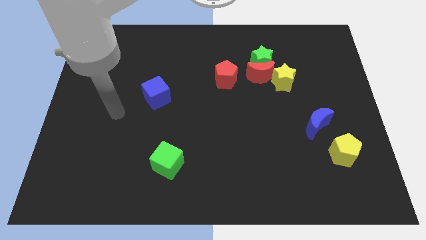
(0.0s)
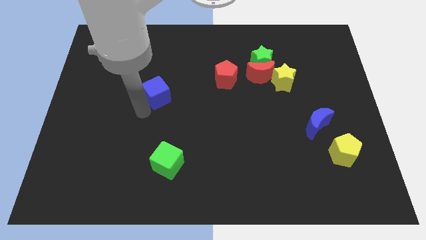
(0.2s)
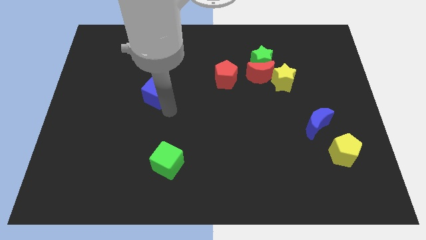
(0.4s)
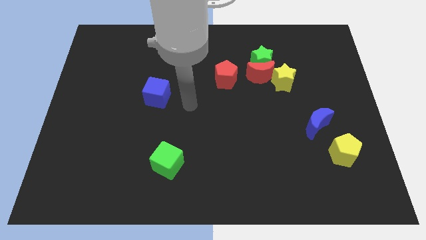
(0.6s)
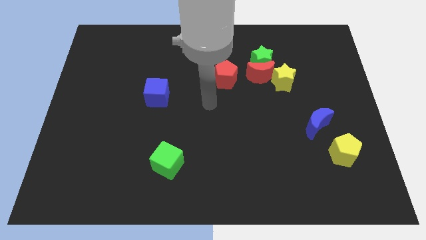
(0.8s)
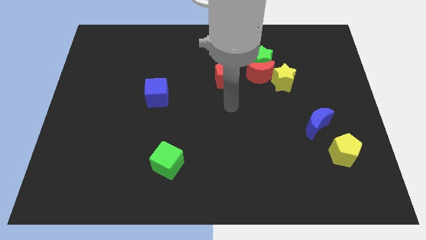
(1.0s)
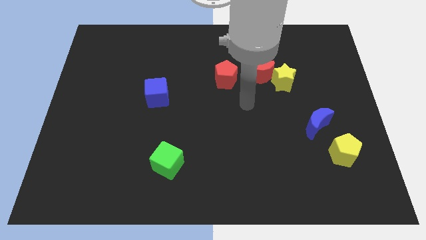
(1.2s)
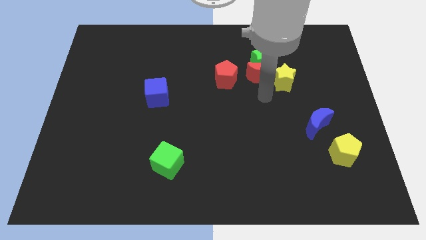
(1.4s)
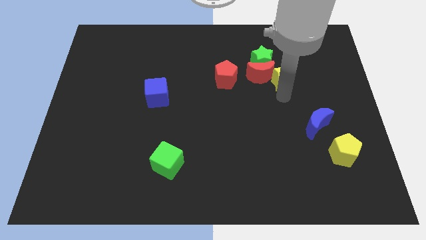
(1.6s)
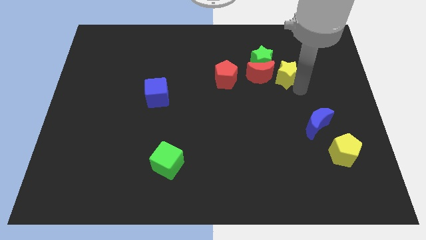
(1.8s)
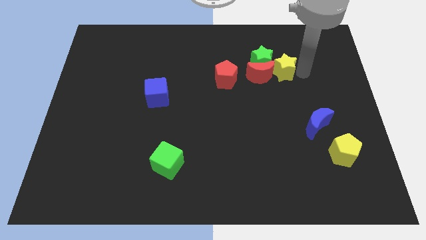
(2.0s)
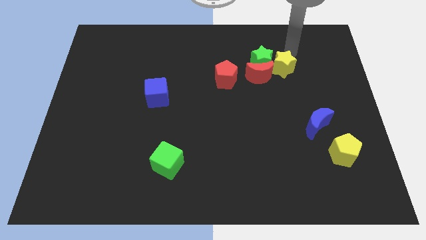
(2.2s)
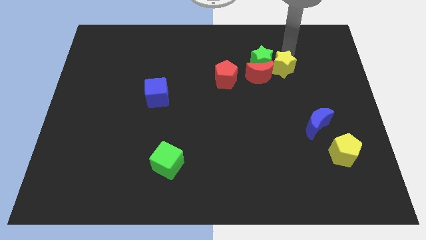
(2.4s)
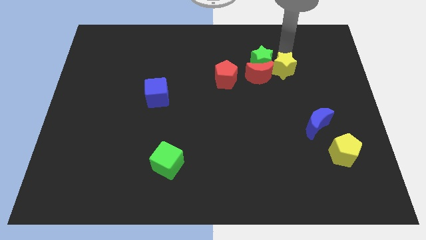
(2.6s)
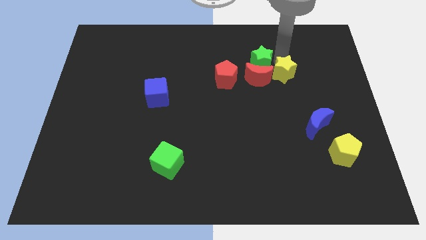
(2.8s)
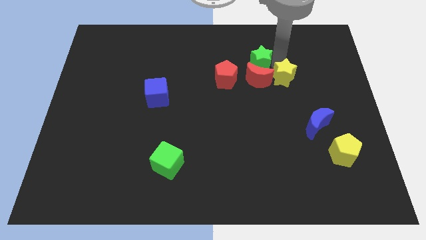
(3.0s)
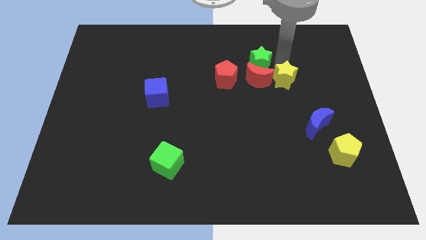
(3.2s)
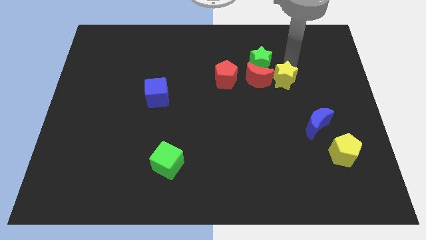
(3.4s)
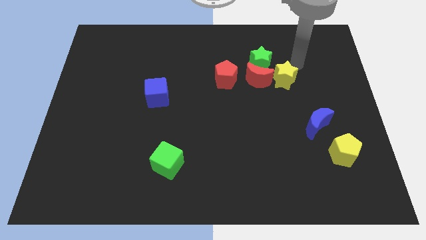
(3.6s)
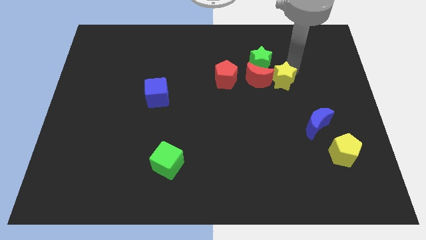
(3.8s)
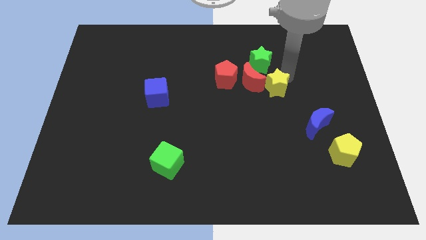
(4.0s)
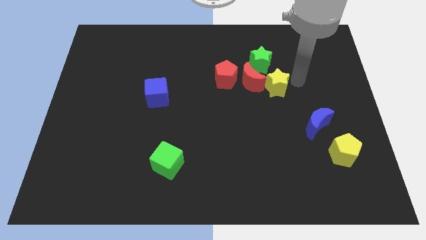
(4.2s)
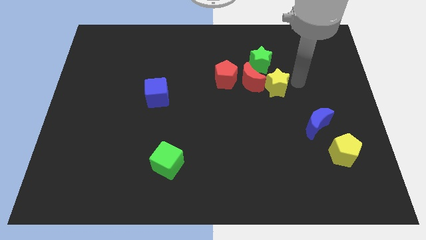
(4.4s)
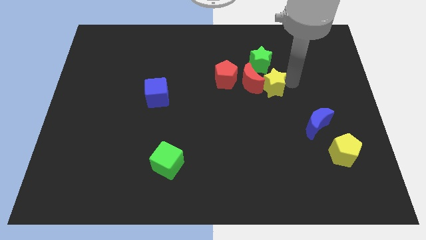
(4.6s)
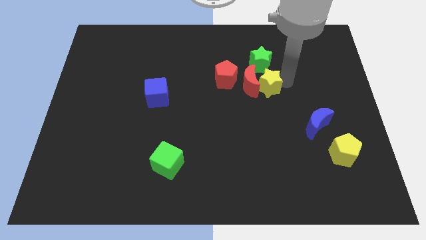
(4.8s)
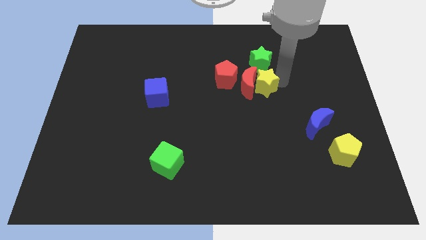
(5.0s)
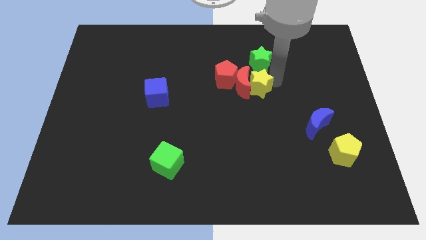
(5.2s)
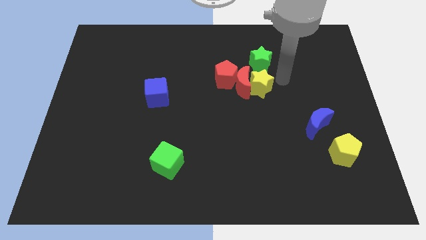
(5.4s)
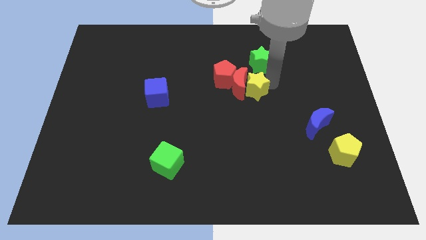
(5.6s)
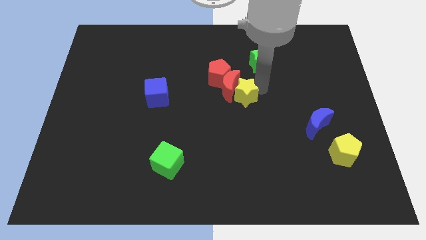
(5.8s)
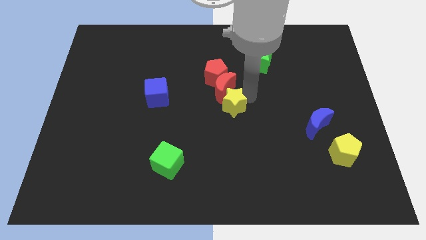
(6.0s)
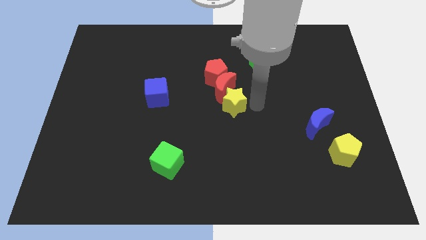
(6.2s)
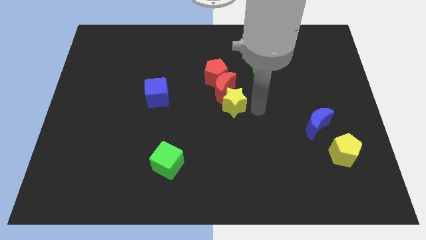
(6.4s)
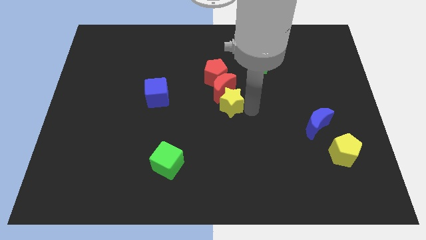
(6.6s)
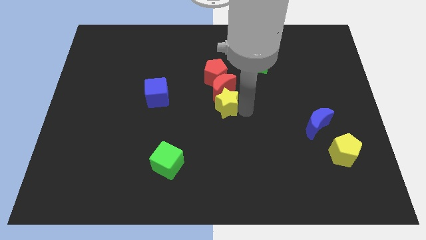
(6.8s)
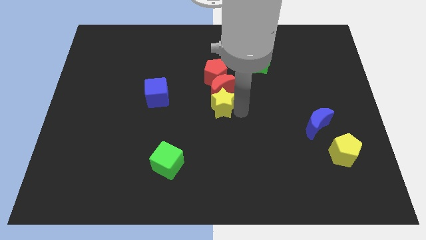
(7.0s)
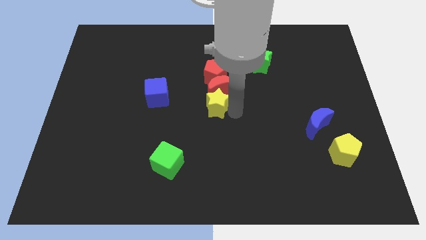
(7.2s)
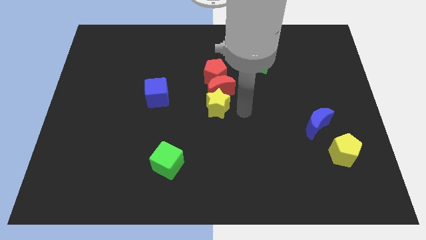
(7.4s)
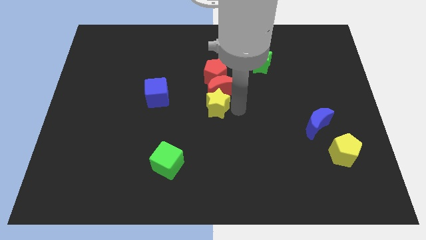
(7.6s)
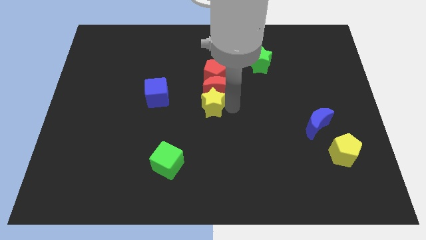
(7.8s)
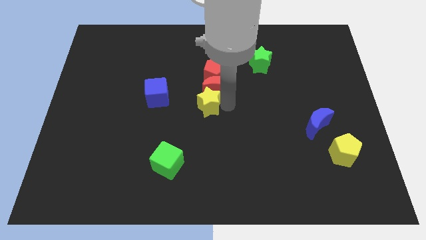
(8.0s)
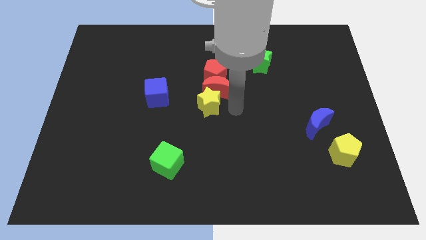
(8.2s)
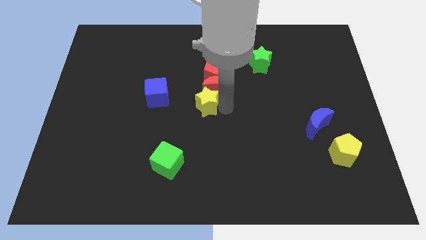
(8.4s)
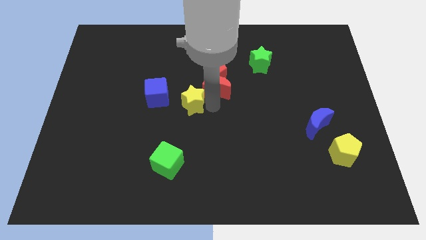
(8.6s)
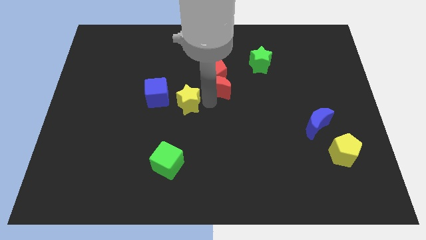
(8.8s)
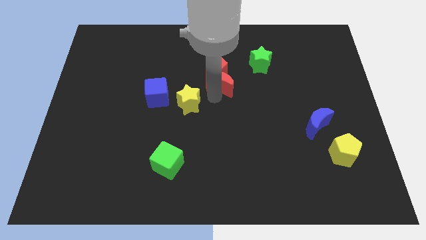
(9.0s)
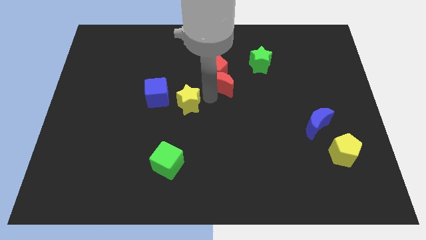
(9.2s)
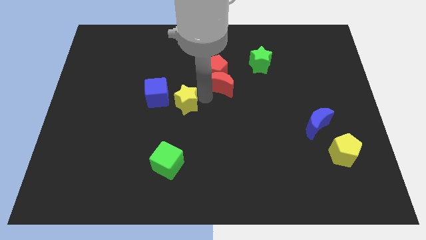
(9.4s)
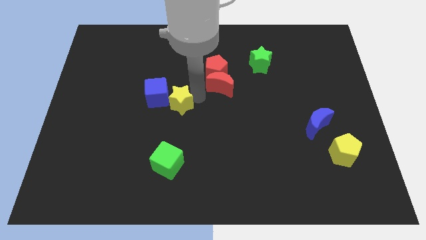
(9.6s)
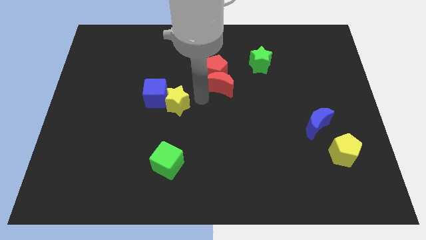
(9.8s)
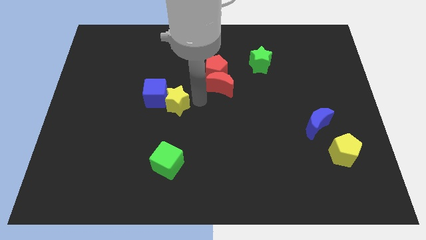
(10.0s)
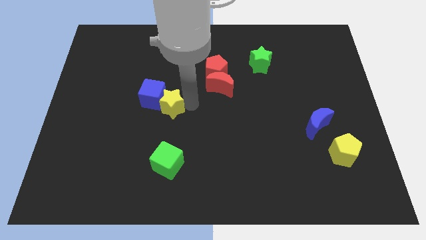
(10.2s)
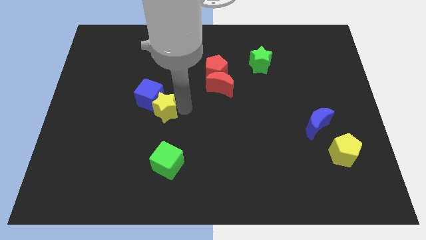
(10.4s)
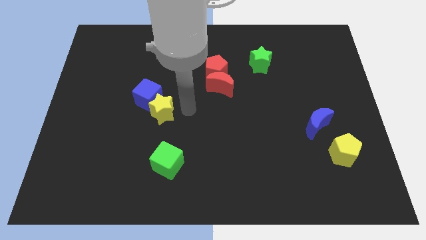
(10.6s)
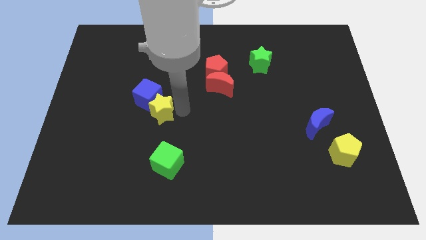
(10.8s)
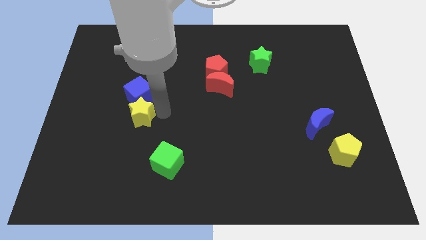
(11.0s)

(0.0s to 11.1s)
slide the yellow star to the bottom left side of the blue cube

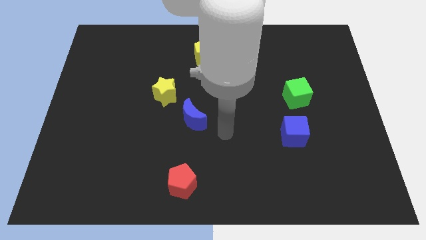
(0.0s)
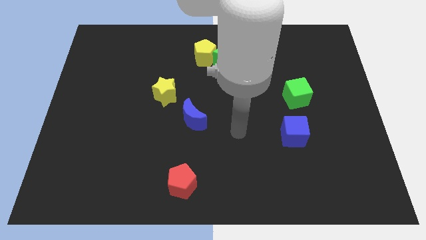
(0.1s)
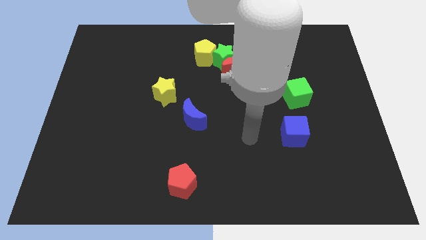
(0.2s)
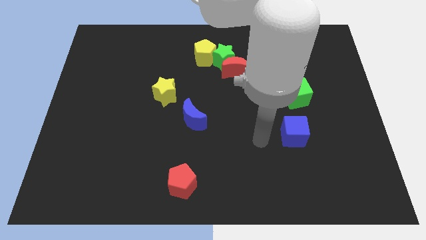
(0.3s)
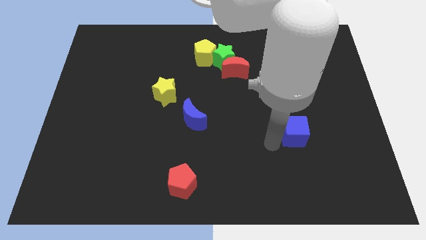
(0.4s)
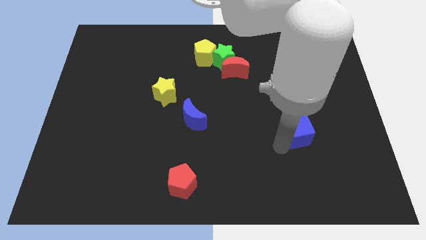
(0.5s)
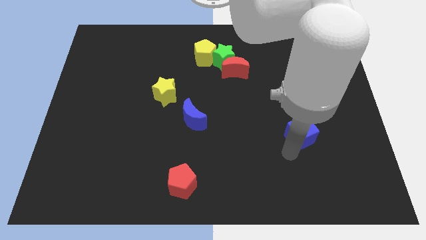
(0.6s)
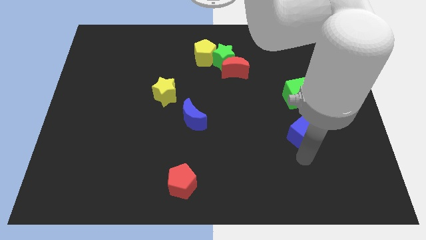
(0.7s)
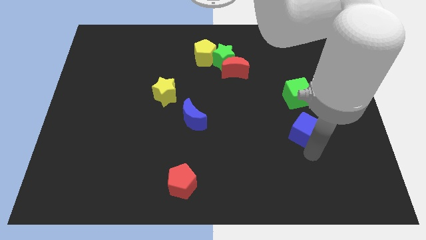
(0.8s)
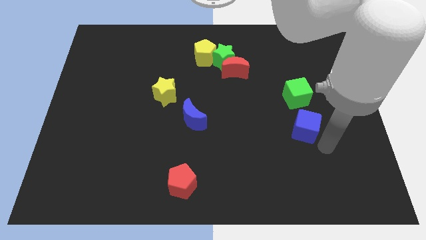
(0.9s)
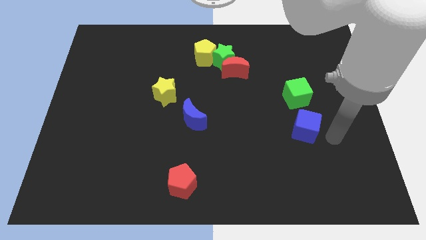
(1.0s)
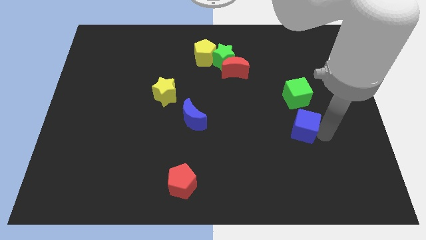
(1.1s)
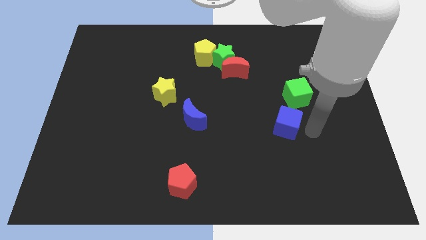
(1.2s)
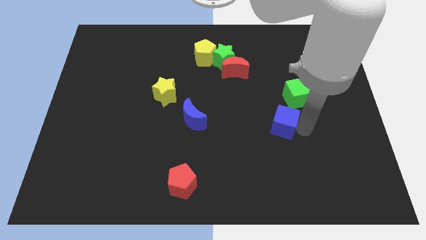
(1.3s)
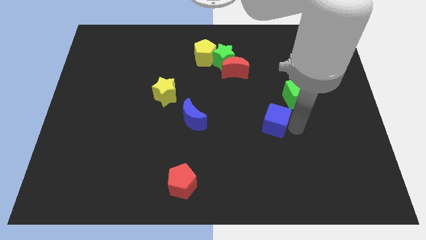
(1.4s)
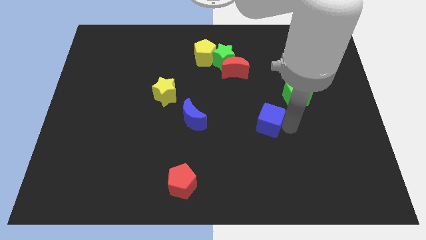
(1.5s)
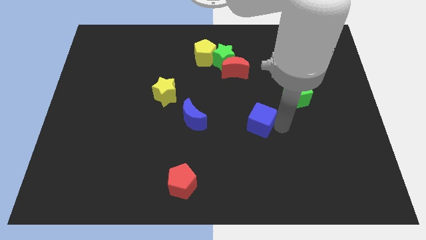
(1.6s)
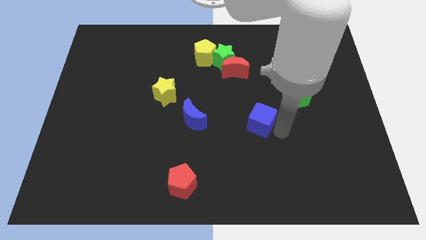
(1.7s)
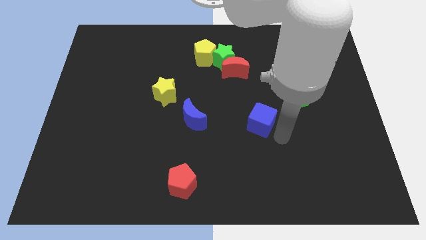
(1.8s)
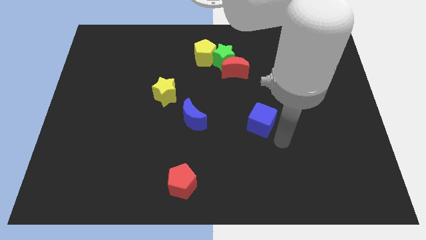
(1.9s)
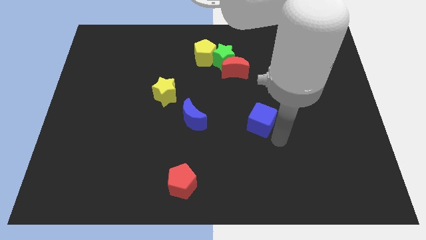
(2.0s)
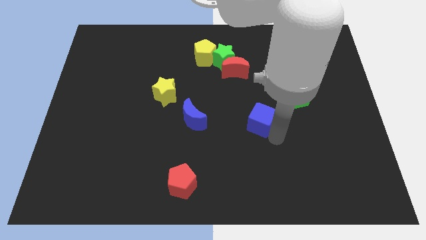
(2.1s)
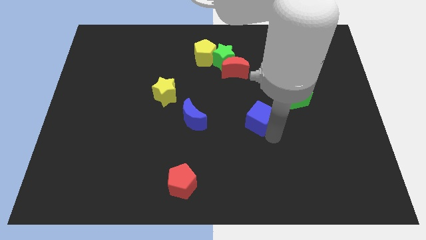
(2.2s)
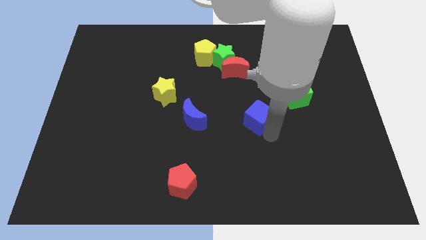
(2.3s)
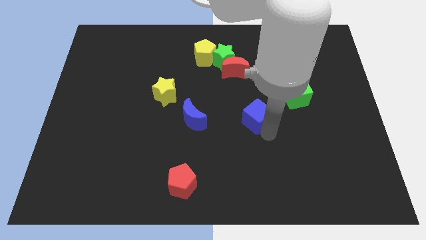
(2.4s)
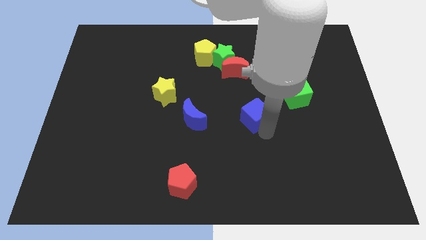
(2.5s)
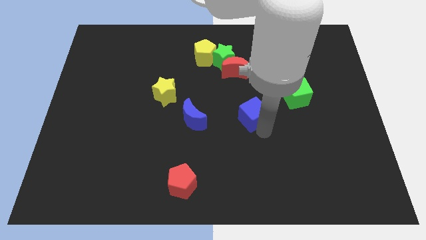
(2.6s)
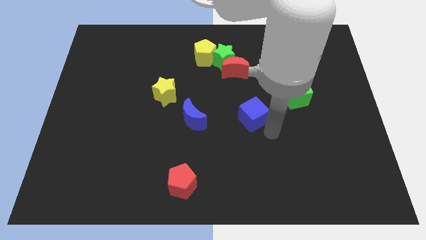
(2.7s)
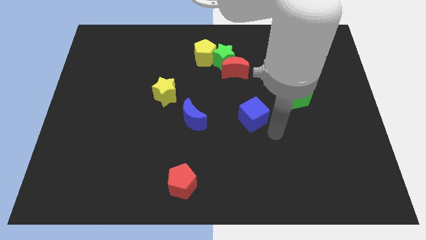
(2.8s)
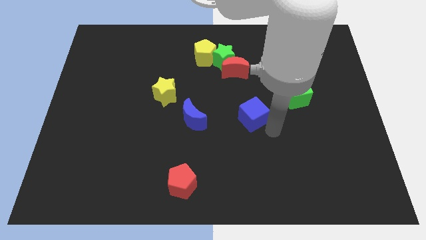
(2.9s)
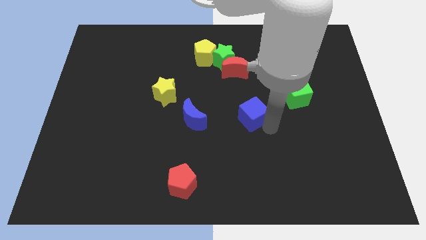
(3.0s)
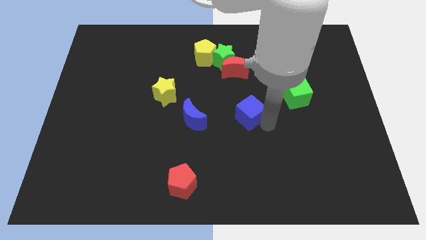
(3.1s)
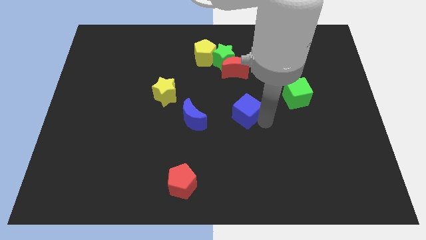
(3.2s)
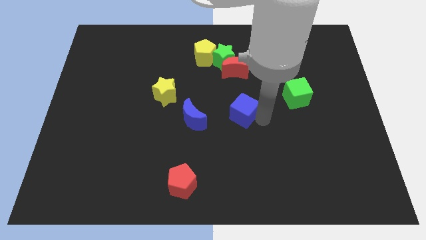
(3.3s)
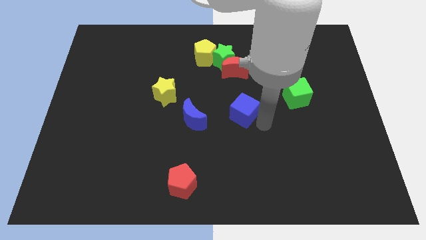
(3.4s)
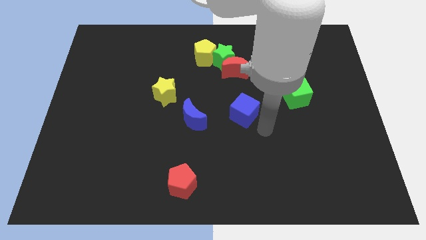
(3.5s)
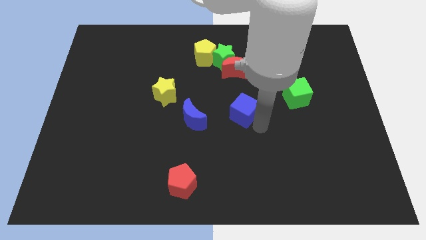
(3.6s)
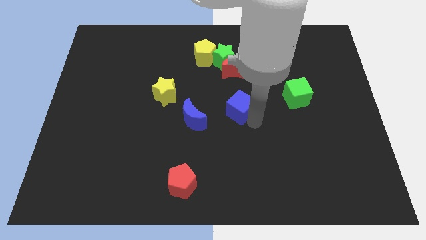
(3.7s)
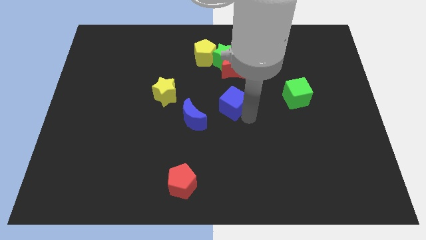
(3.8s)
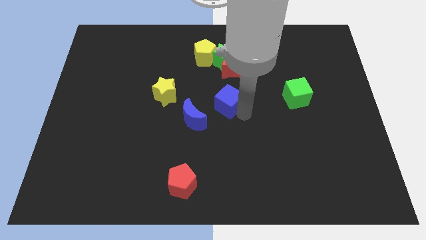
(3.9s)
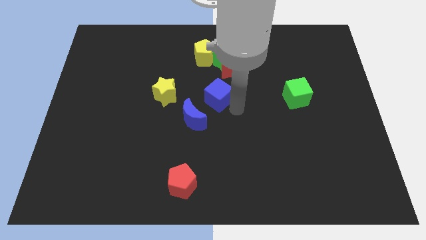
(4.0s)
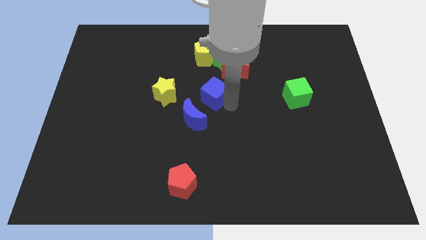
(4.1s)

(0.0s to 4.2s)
put the blue cube to the top side of the blue moon
